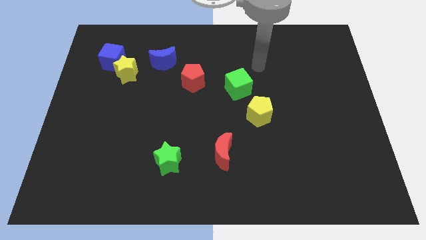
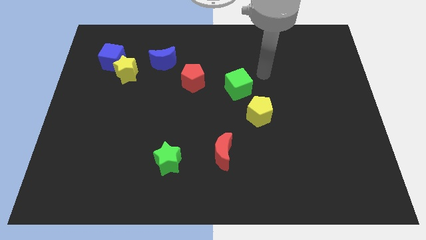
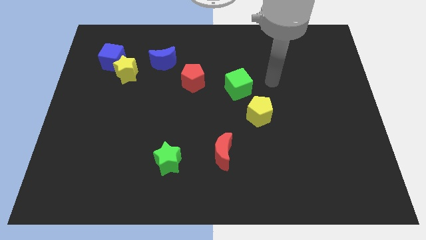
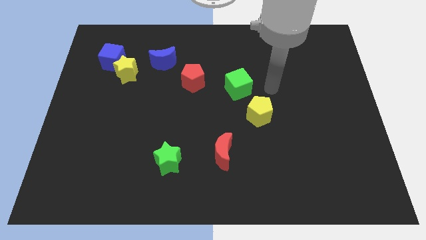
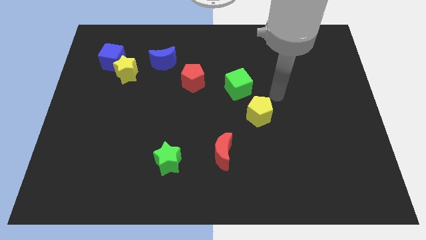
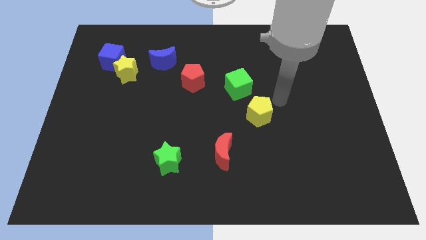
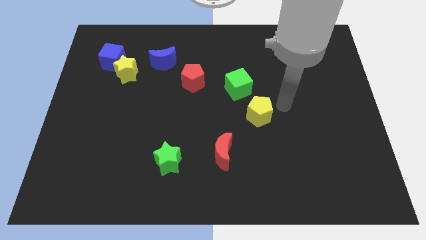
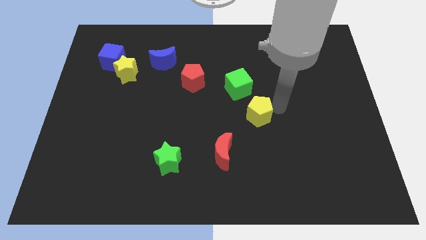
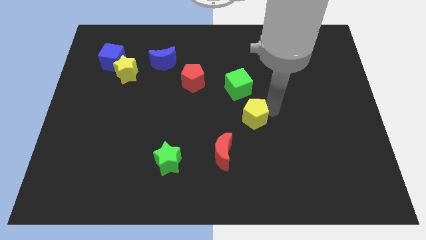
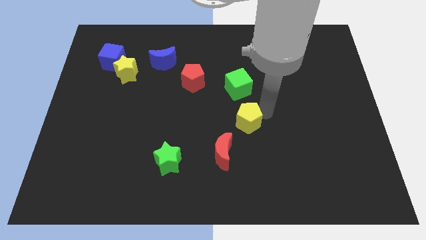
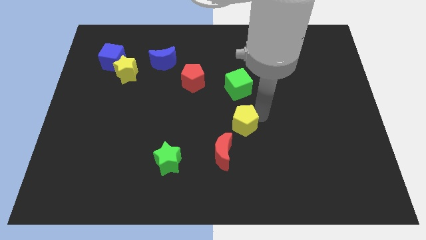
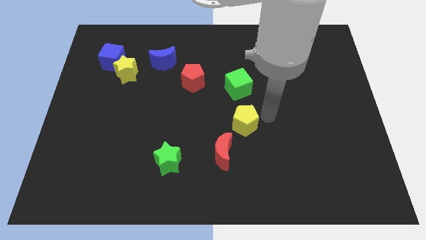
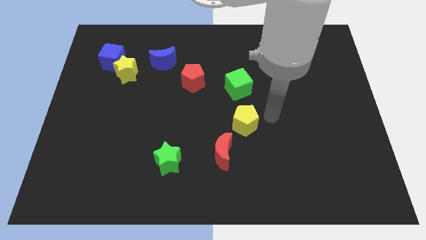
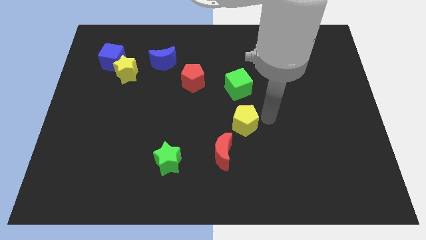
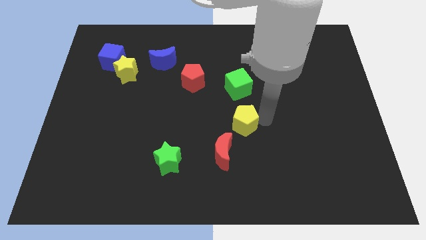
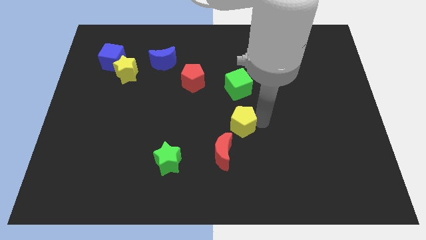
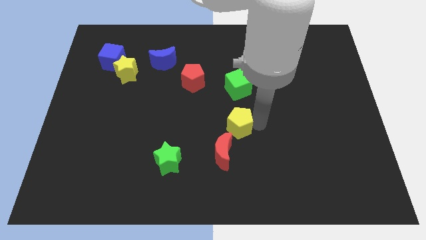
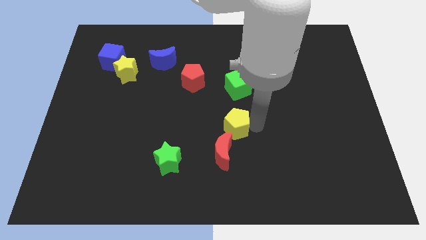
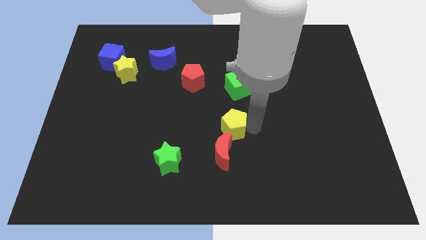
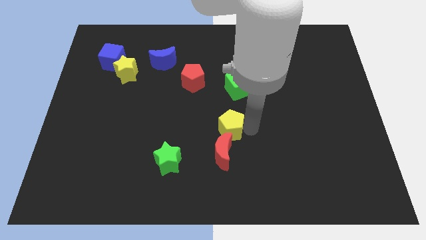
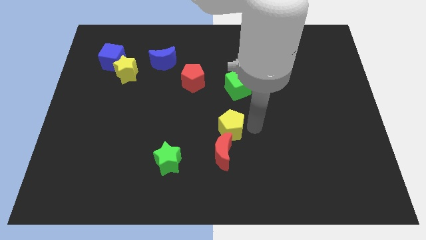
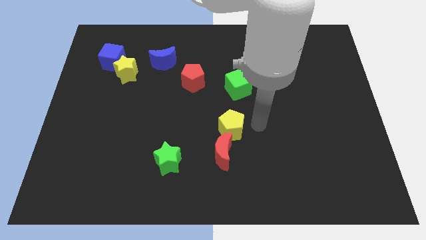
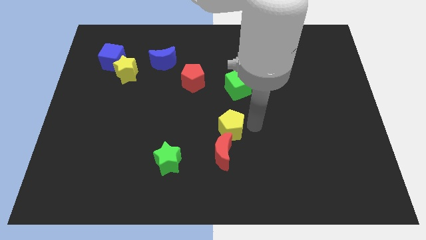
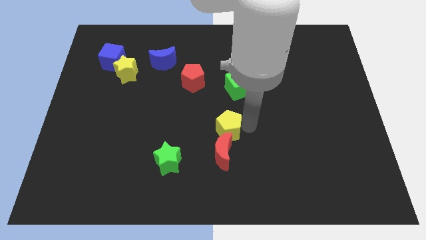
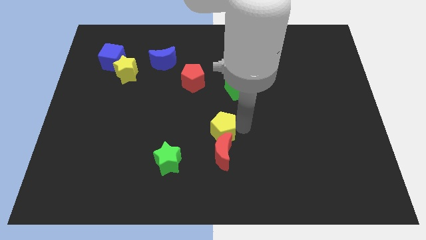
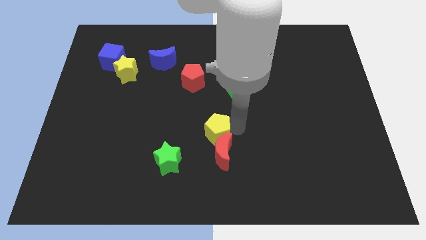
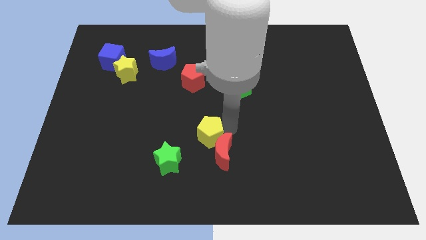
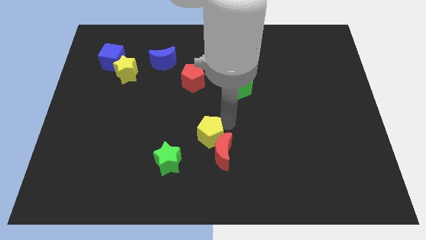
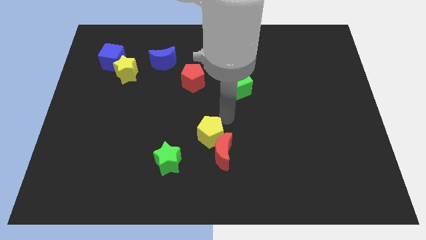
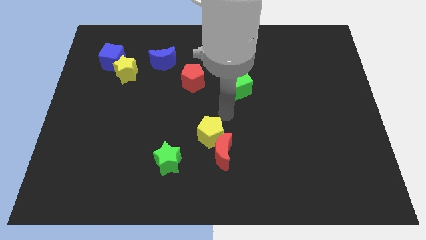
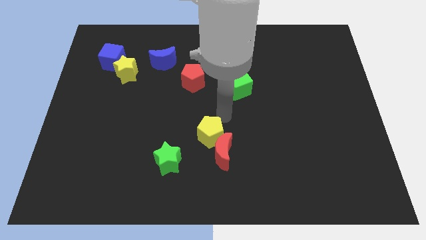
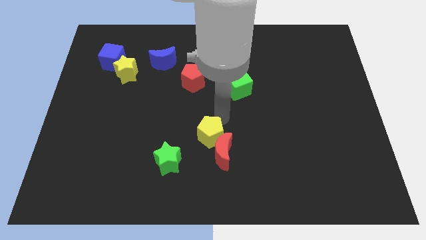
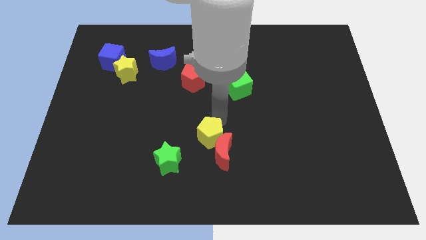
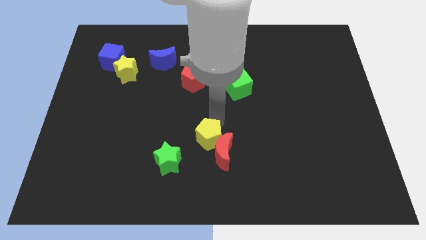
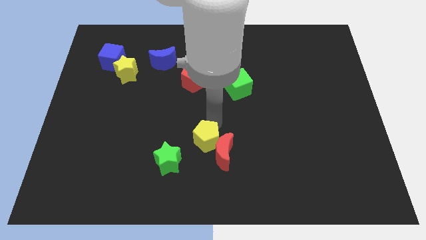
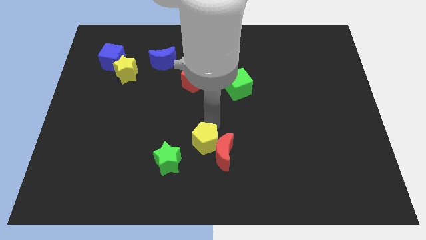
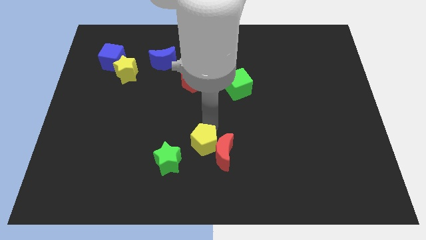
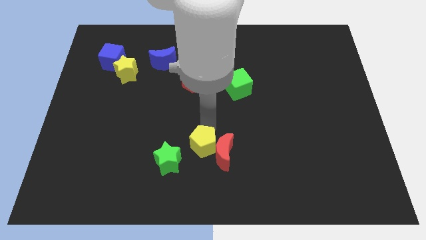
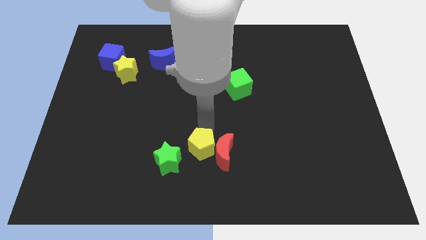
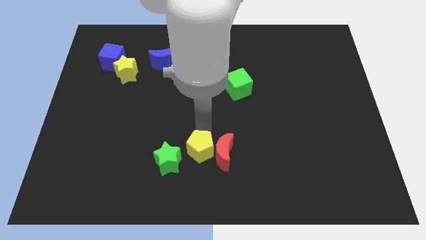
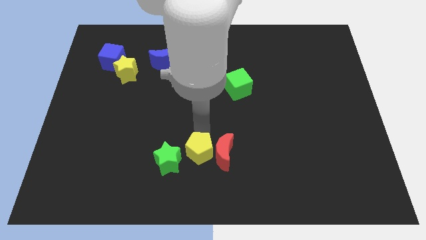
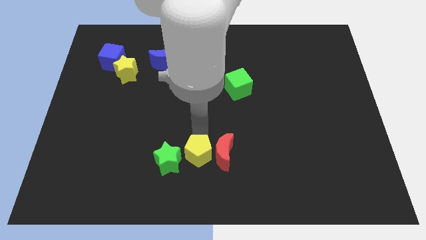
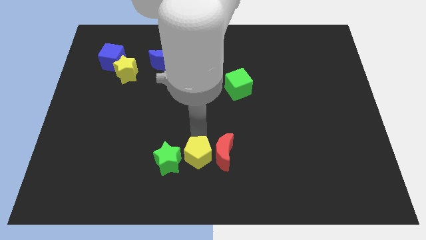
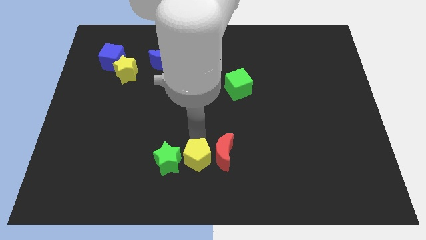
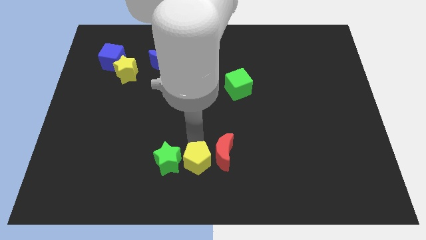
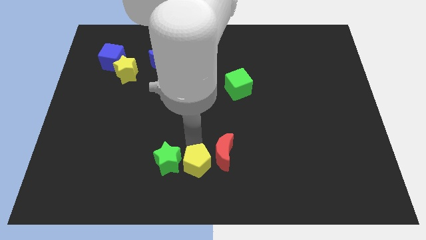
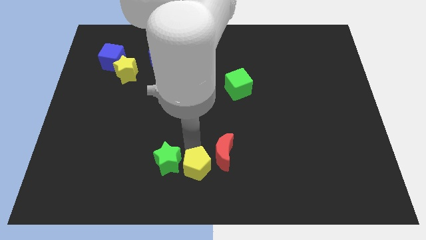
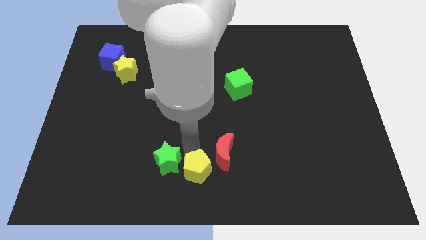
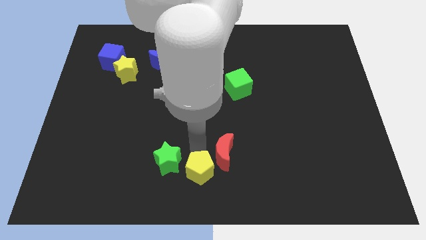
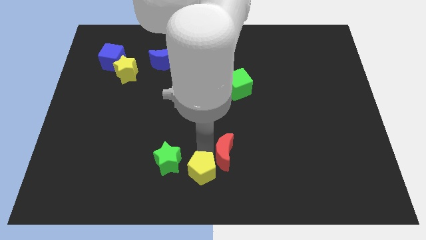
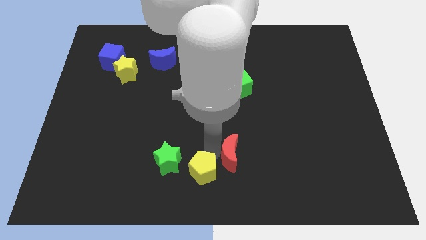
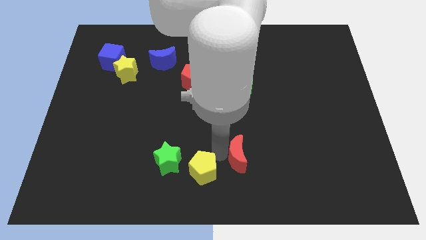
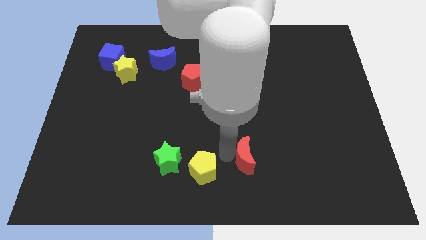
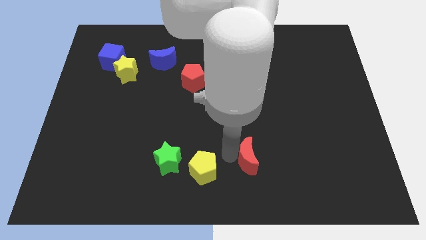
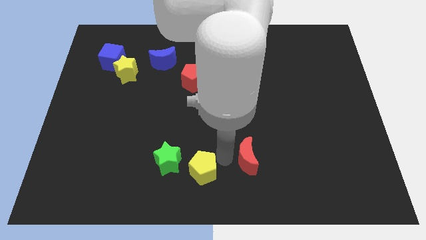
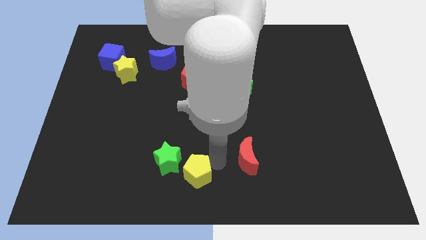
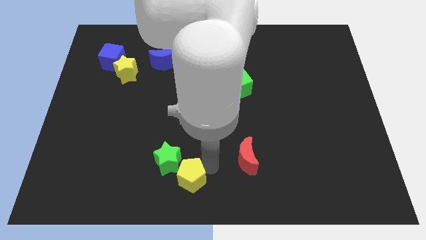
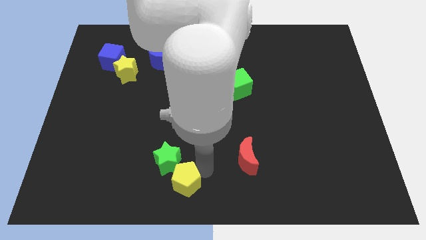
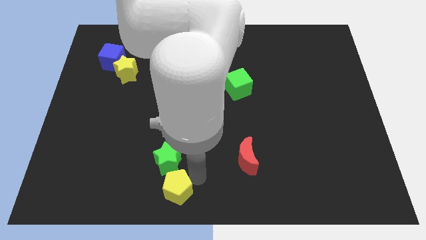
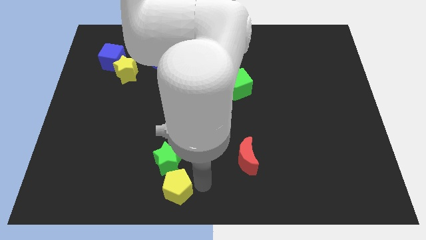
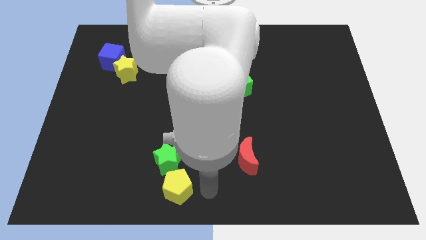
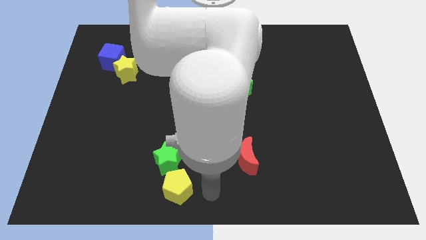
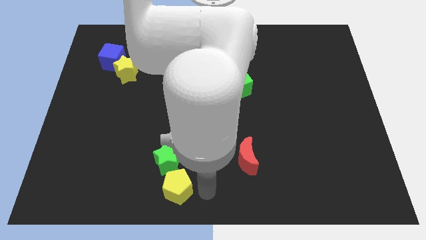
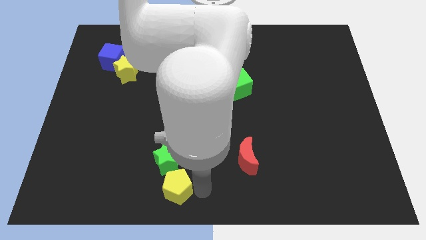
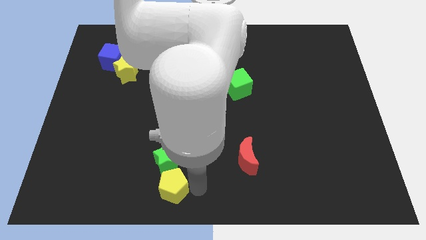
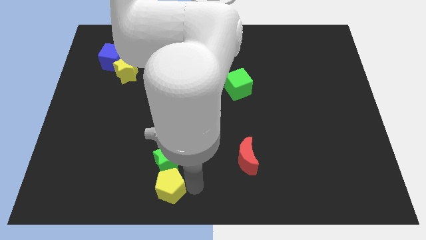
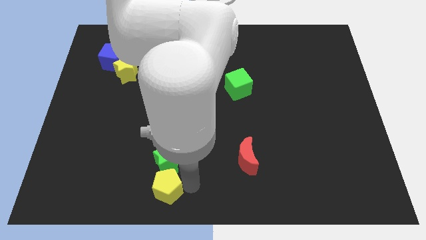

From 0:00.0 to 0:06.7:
push the yellow pentagon to the bottom left side of the green star
